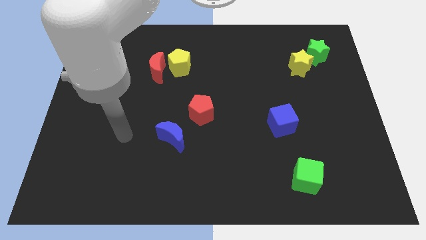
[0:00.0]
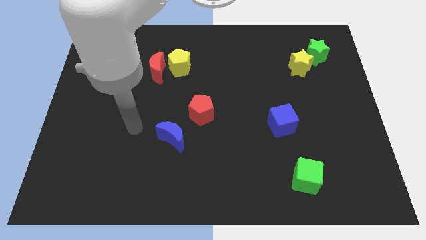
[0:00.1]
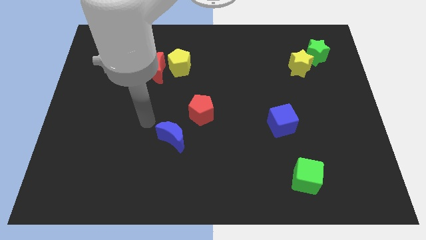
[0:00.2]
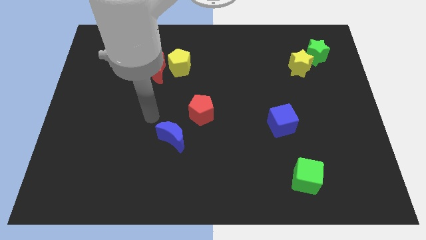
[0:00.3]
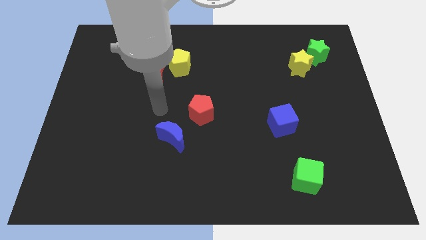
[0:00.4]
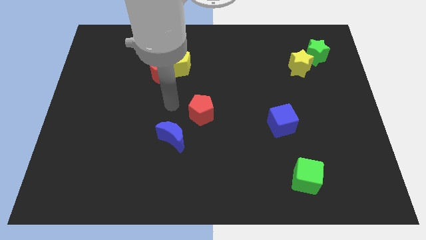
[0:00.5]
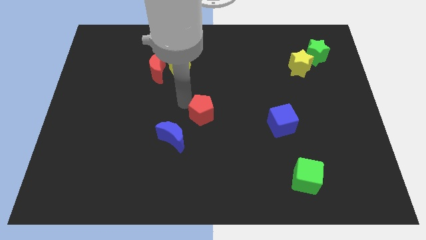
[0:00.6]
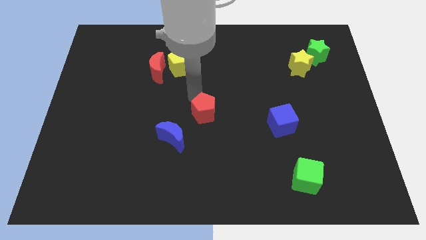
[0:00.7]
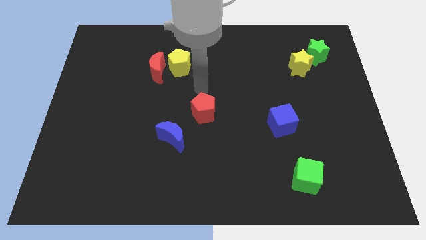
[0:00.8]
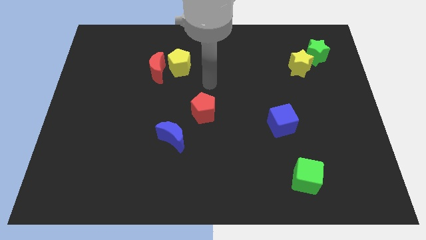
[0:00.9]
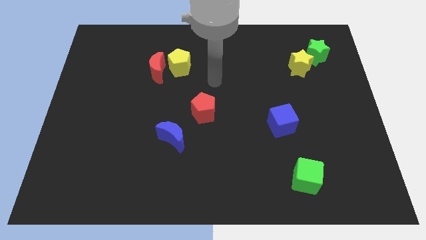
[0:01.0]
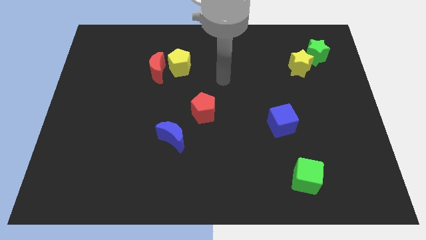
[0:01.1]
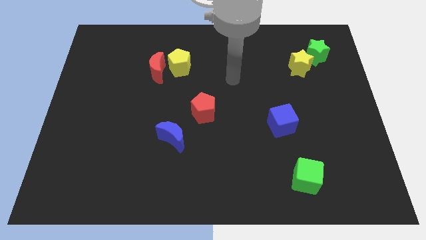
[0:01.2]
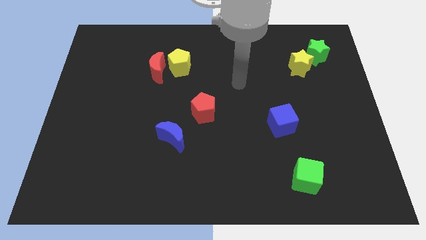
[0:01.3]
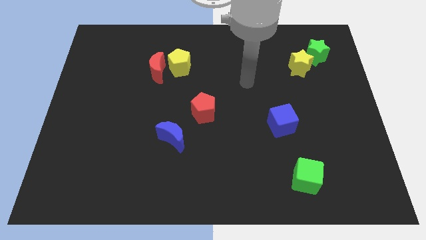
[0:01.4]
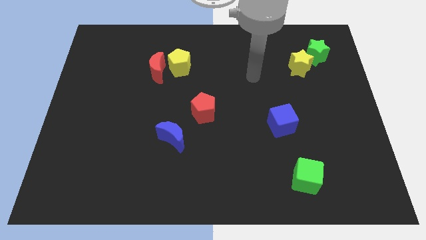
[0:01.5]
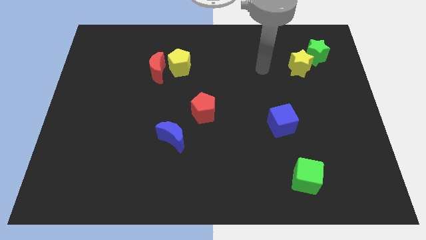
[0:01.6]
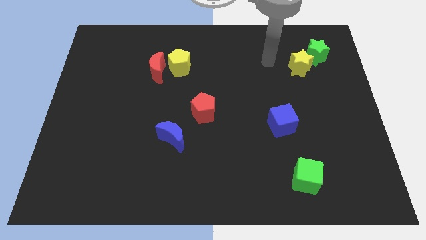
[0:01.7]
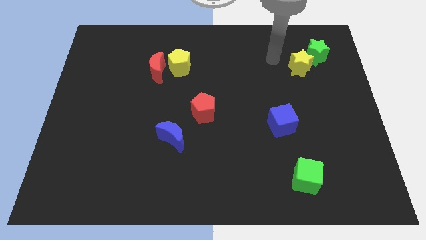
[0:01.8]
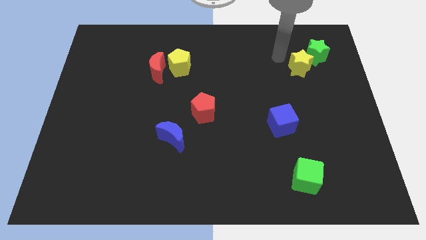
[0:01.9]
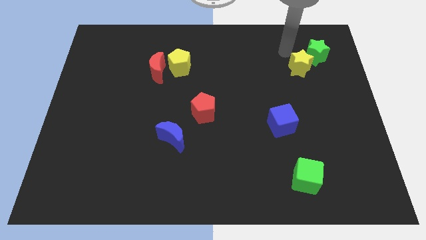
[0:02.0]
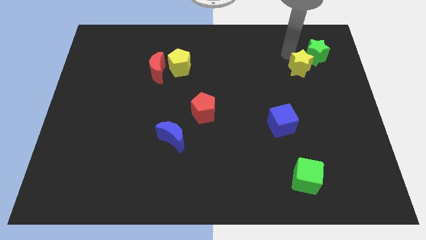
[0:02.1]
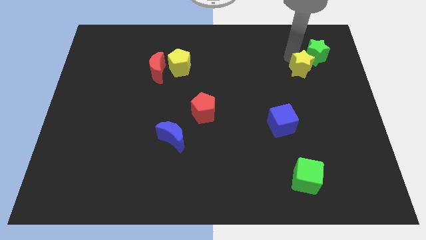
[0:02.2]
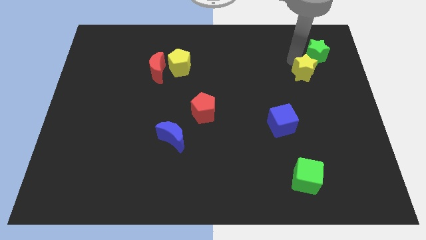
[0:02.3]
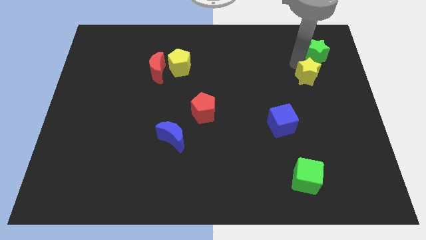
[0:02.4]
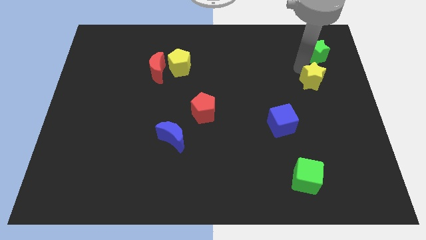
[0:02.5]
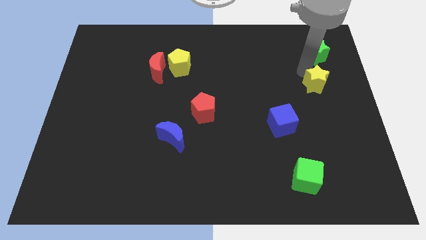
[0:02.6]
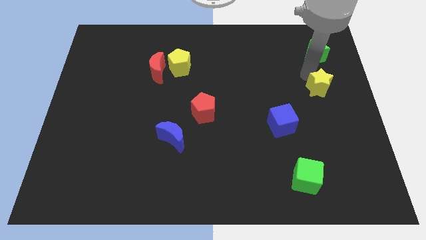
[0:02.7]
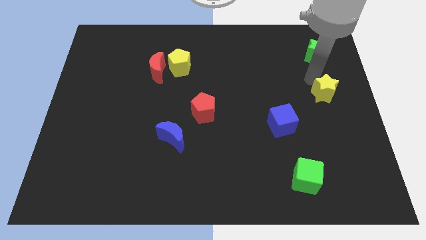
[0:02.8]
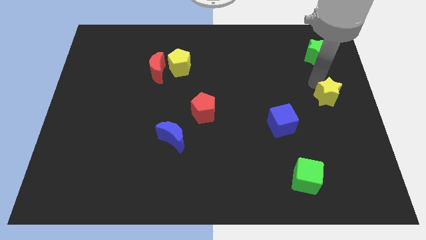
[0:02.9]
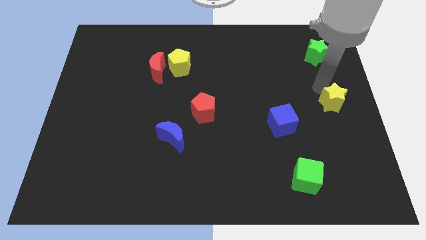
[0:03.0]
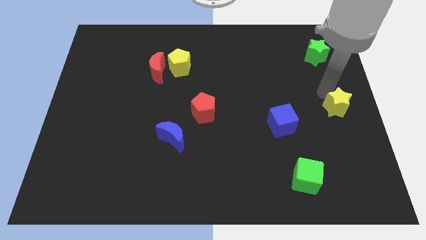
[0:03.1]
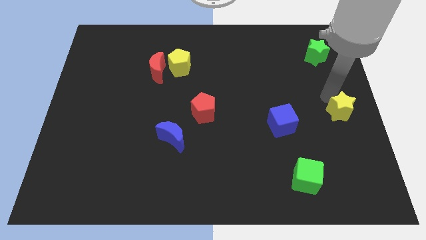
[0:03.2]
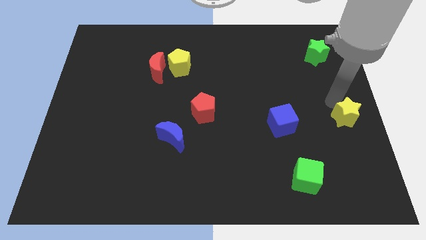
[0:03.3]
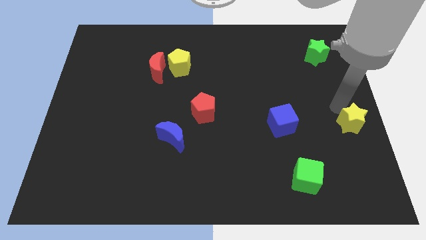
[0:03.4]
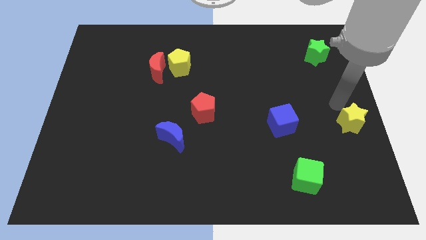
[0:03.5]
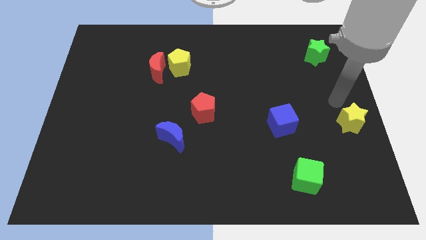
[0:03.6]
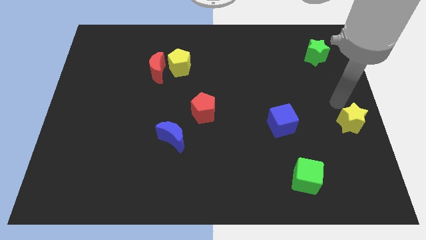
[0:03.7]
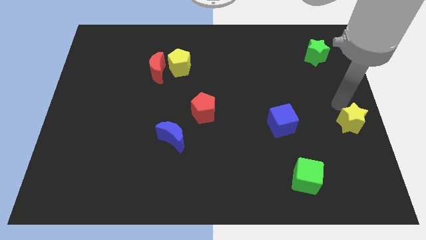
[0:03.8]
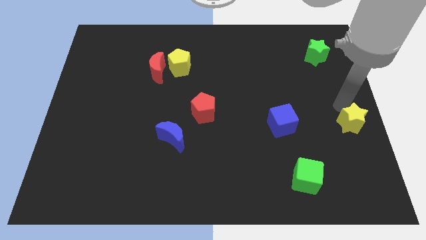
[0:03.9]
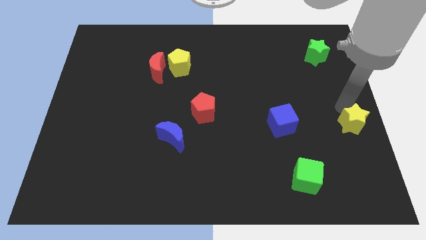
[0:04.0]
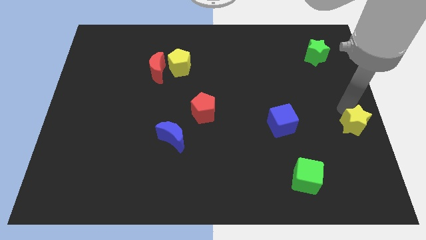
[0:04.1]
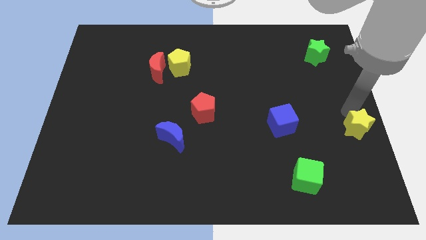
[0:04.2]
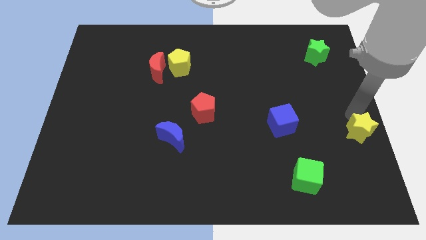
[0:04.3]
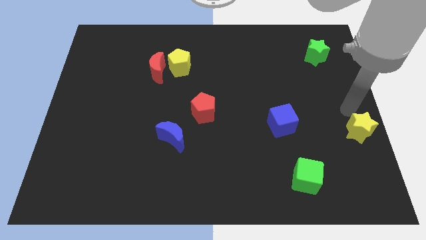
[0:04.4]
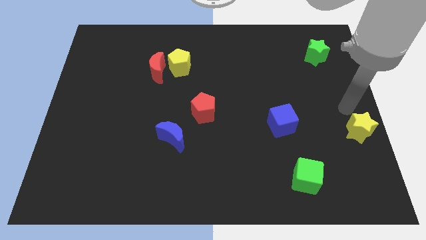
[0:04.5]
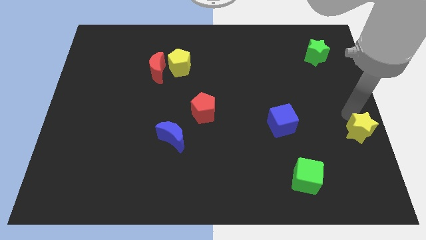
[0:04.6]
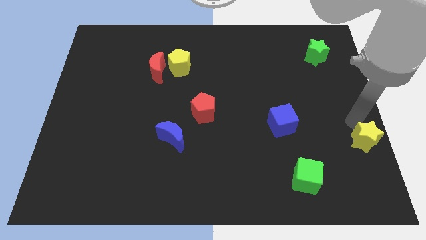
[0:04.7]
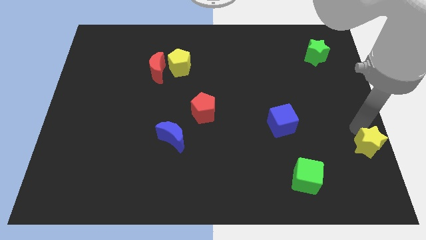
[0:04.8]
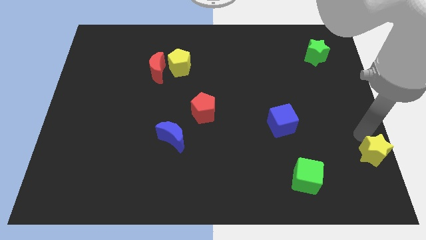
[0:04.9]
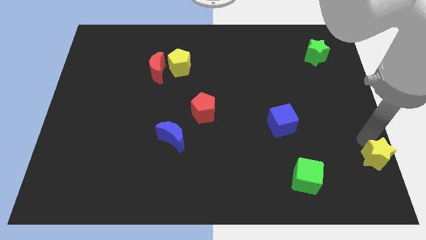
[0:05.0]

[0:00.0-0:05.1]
push the yellow star to the bottom right corner

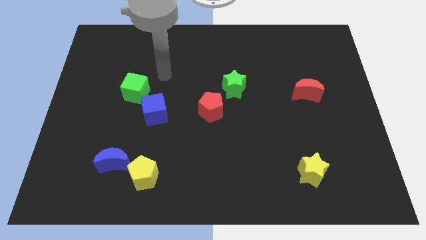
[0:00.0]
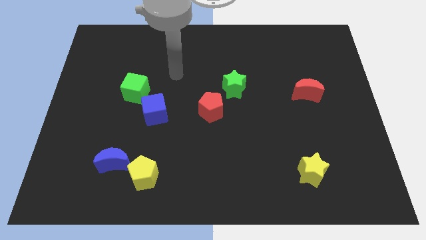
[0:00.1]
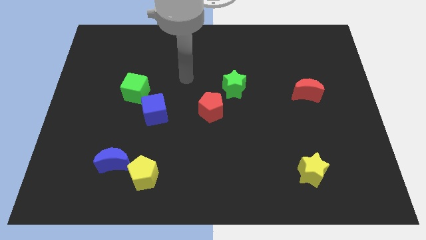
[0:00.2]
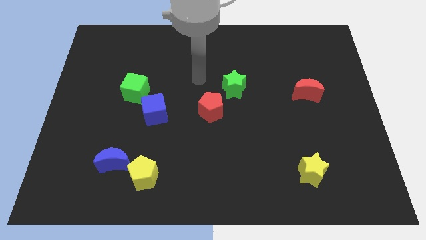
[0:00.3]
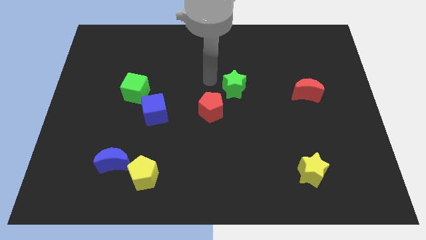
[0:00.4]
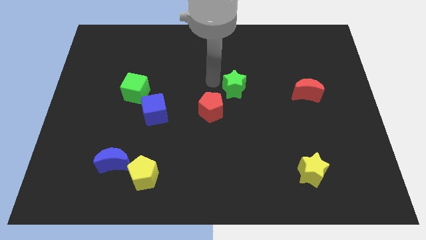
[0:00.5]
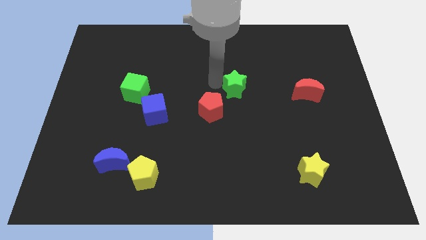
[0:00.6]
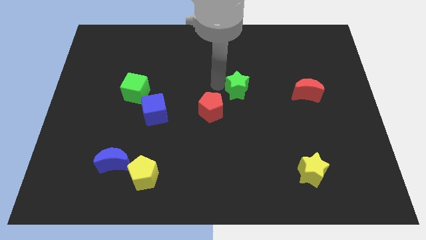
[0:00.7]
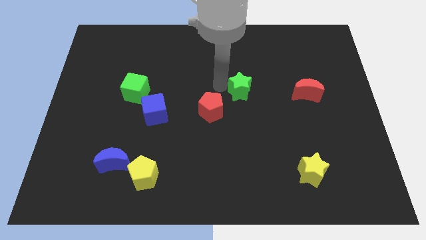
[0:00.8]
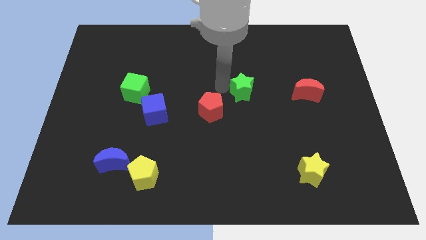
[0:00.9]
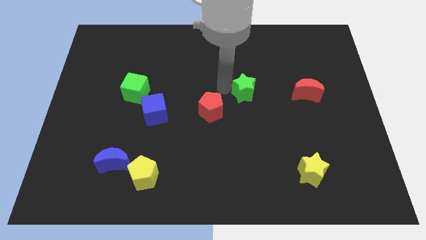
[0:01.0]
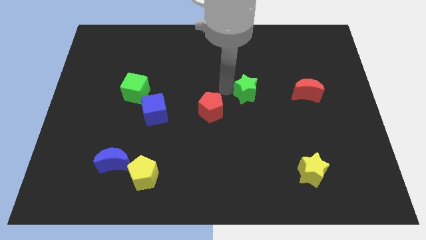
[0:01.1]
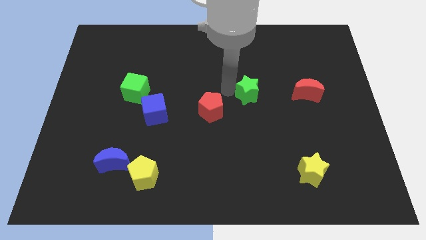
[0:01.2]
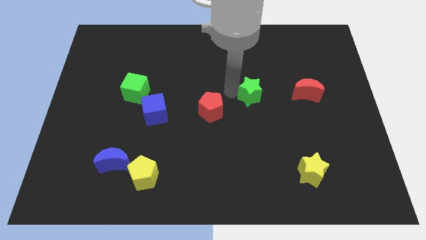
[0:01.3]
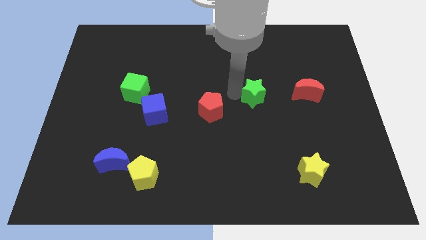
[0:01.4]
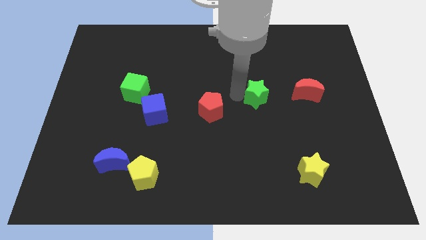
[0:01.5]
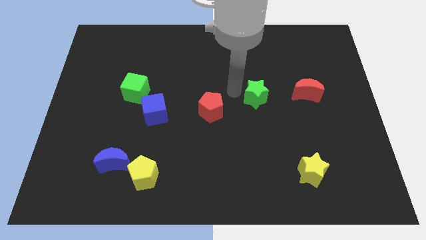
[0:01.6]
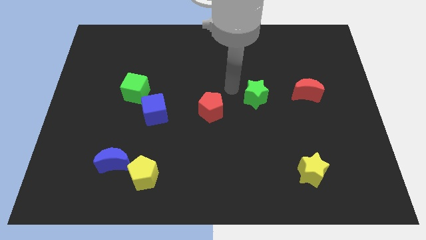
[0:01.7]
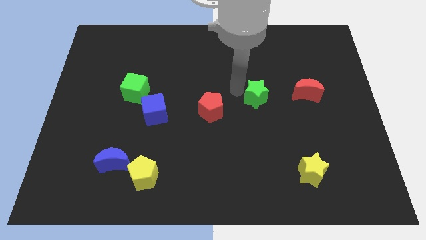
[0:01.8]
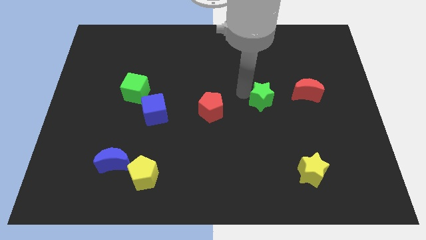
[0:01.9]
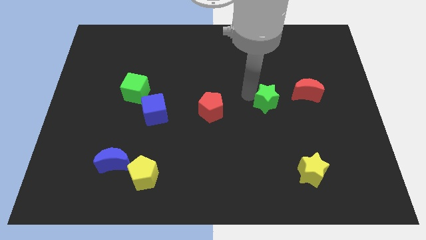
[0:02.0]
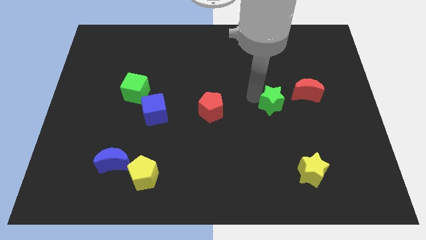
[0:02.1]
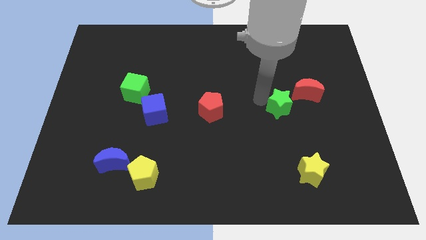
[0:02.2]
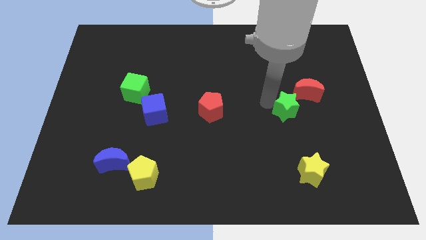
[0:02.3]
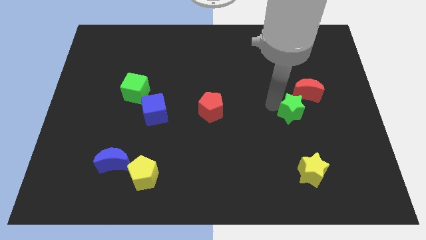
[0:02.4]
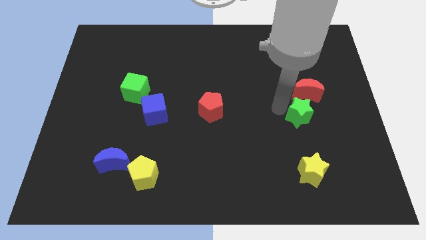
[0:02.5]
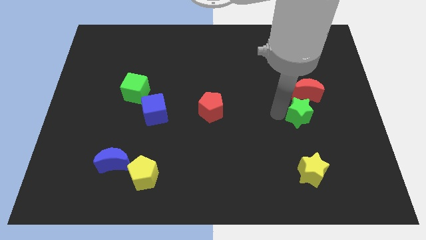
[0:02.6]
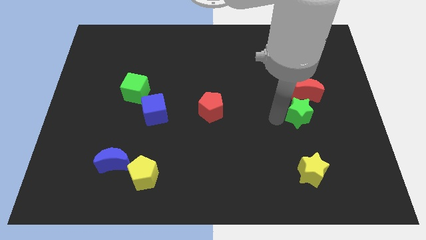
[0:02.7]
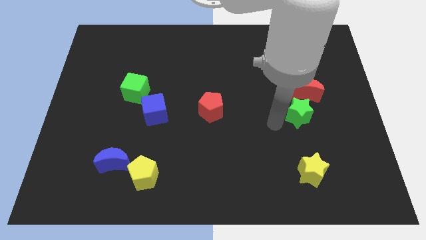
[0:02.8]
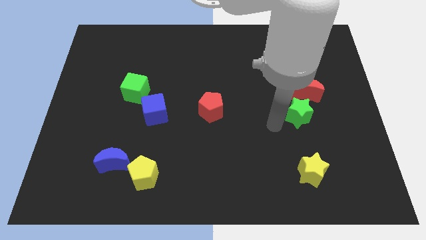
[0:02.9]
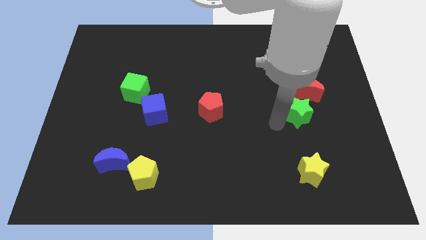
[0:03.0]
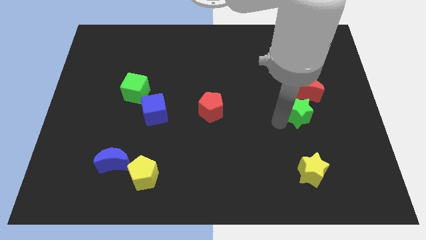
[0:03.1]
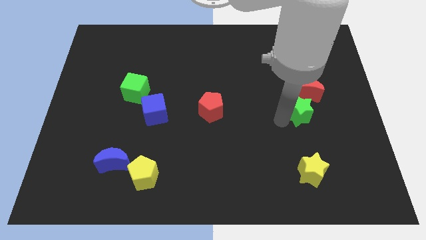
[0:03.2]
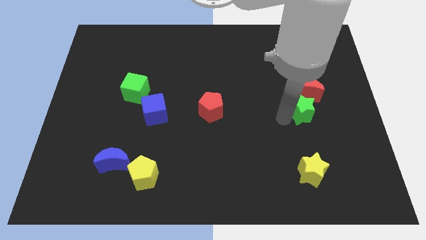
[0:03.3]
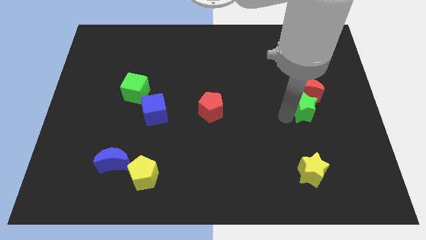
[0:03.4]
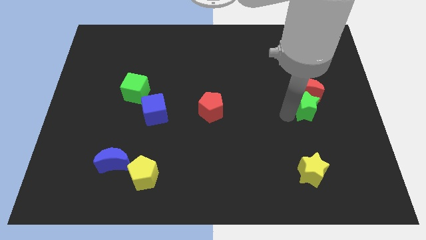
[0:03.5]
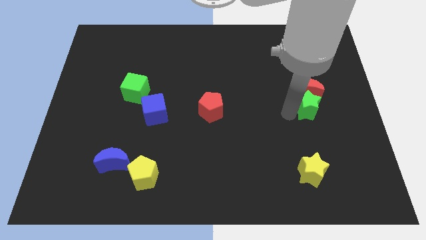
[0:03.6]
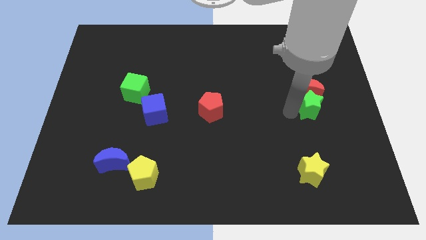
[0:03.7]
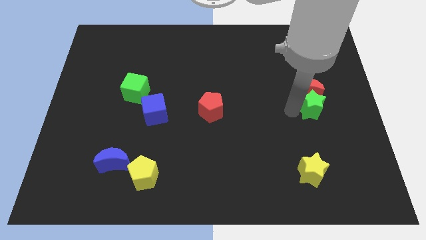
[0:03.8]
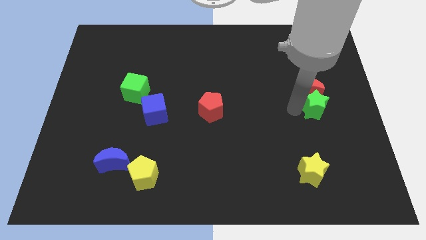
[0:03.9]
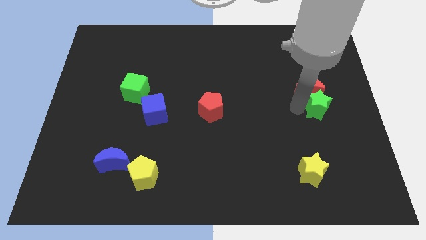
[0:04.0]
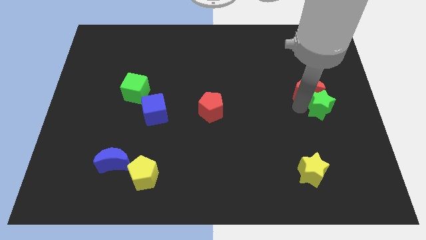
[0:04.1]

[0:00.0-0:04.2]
move the green star to the center right
